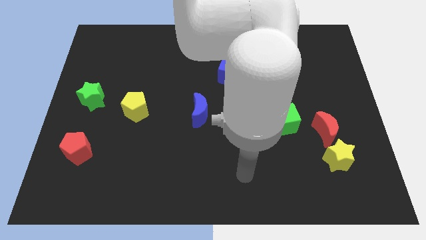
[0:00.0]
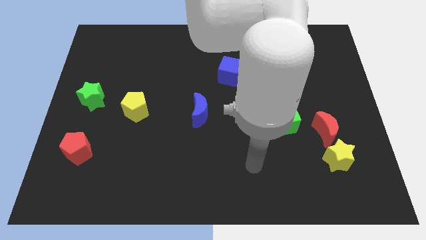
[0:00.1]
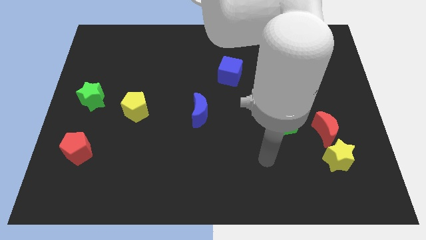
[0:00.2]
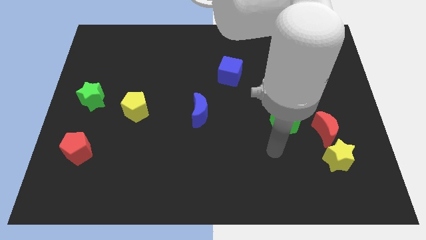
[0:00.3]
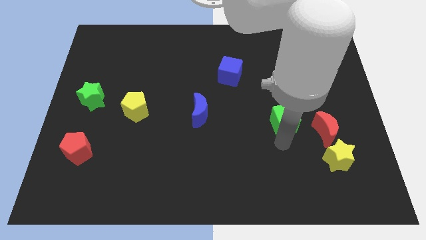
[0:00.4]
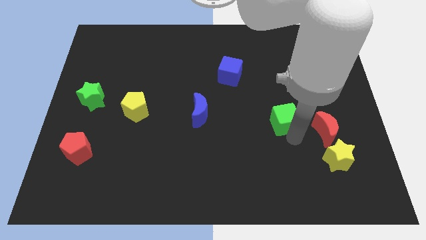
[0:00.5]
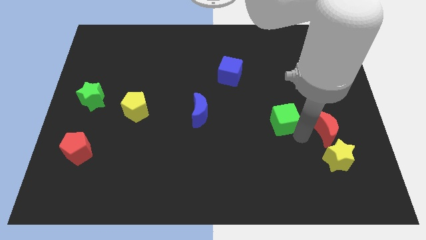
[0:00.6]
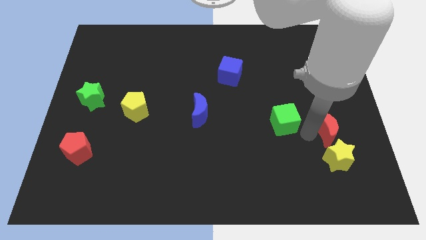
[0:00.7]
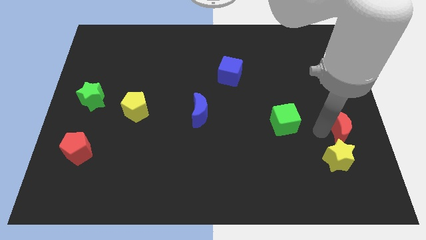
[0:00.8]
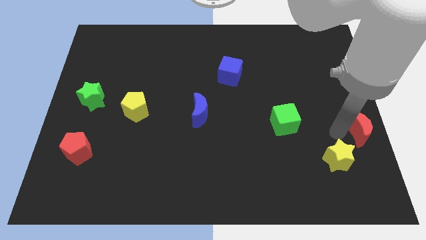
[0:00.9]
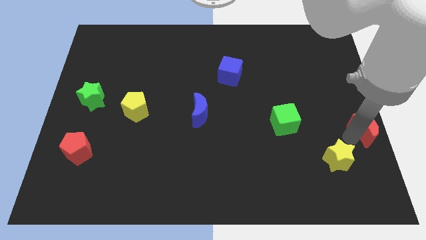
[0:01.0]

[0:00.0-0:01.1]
pull the yellow star apart from the red moon

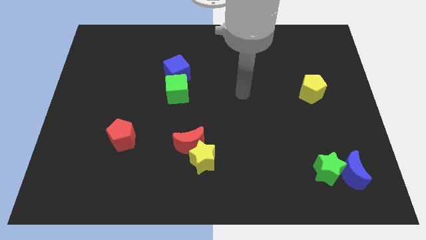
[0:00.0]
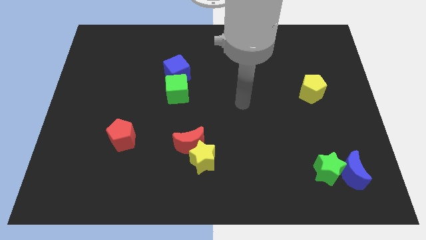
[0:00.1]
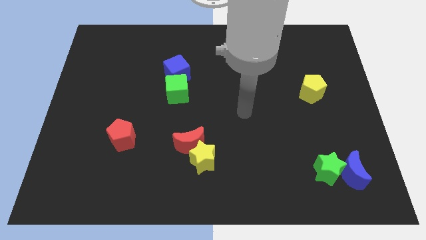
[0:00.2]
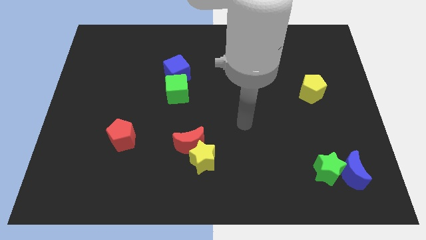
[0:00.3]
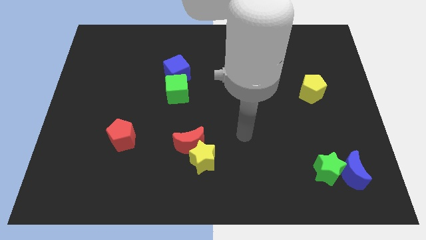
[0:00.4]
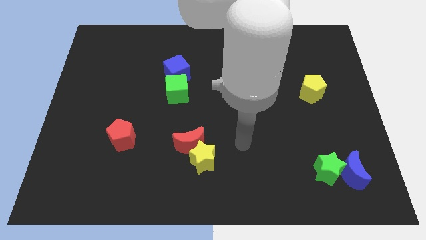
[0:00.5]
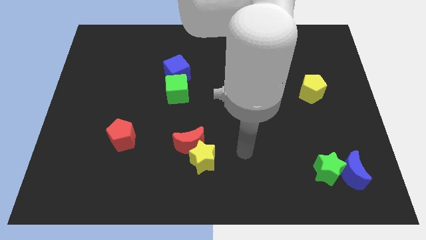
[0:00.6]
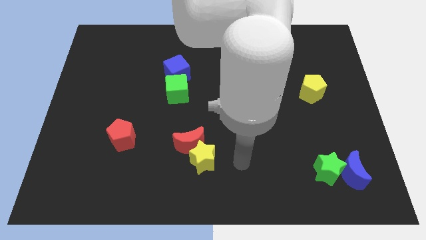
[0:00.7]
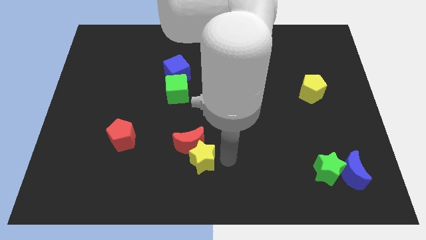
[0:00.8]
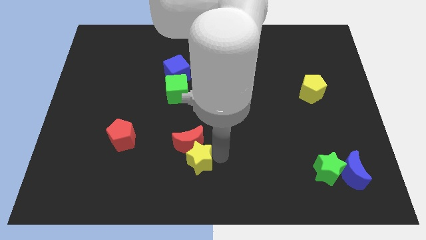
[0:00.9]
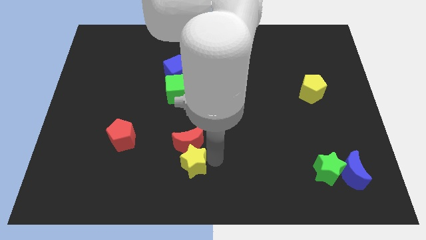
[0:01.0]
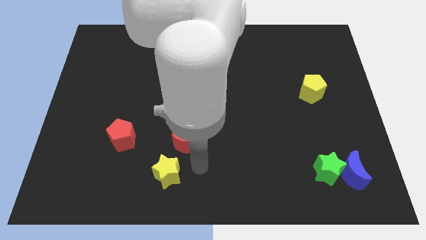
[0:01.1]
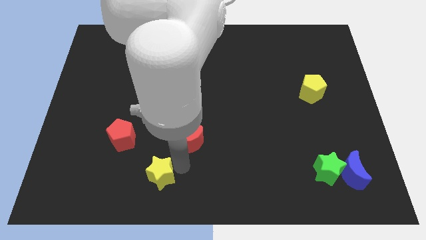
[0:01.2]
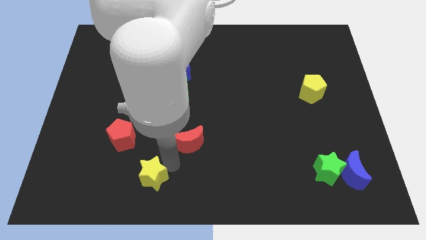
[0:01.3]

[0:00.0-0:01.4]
pull the red moon apart from the yellow star

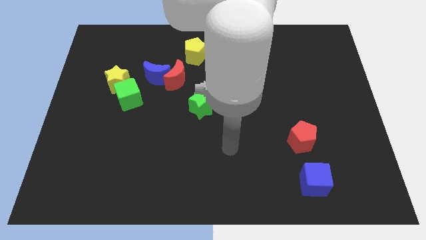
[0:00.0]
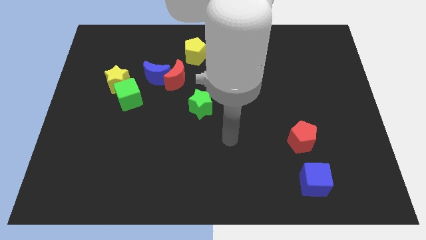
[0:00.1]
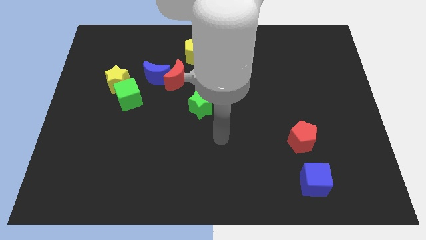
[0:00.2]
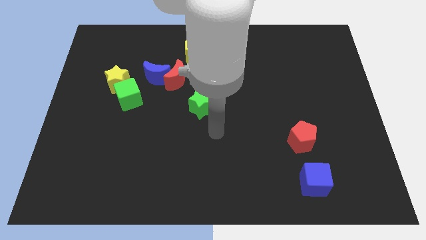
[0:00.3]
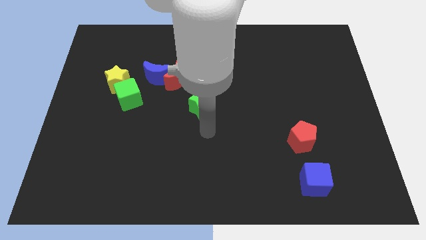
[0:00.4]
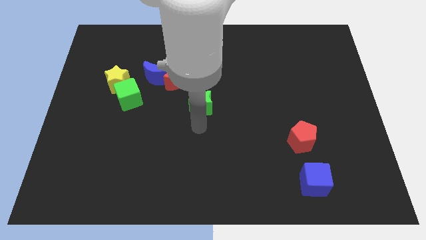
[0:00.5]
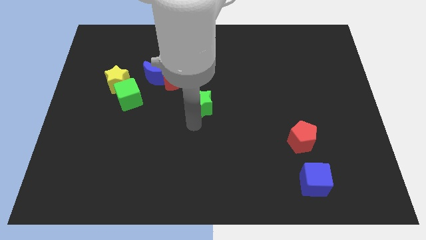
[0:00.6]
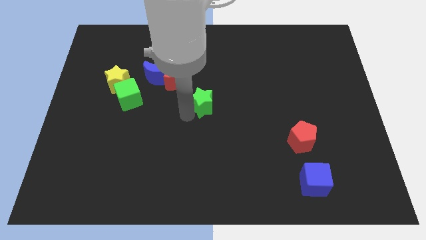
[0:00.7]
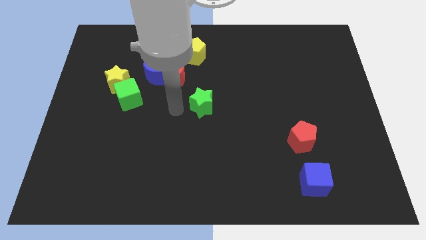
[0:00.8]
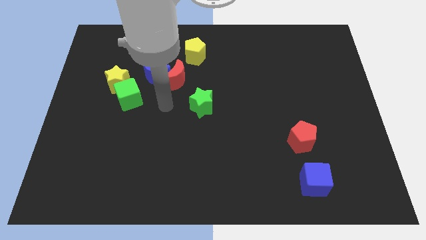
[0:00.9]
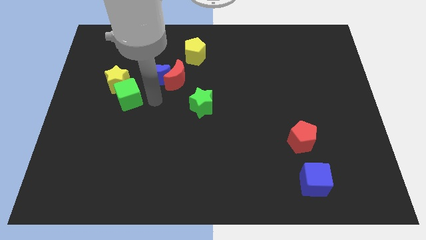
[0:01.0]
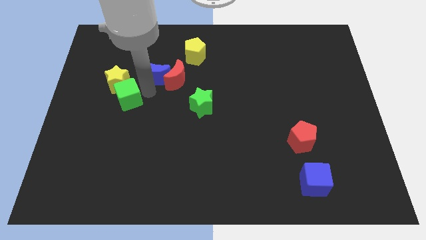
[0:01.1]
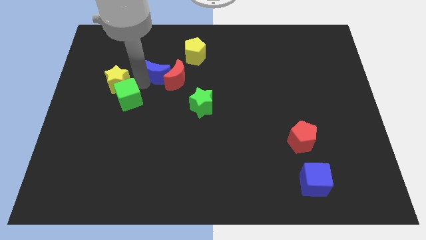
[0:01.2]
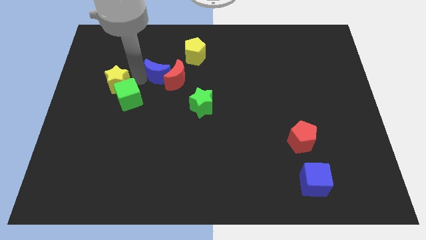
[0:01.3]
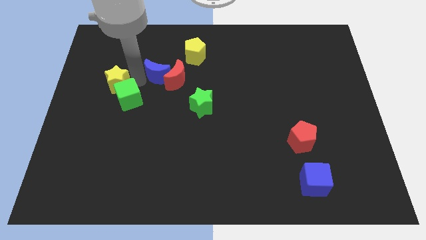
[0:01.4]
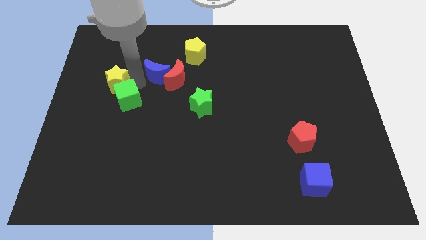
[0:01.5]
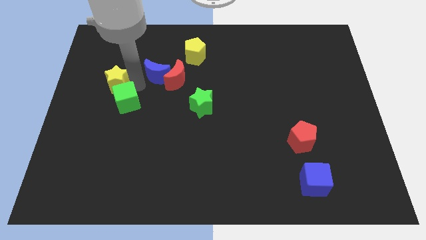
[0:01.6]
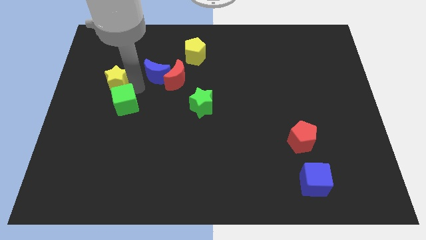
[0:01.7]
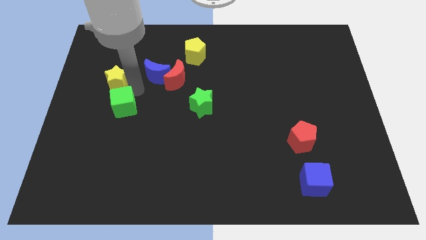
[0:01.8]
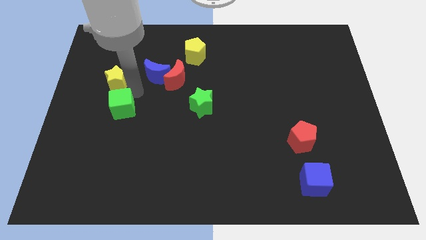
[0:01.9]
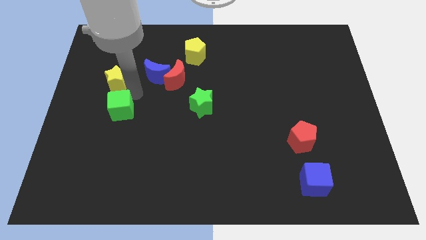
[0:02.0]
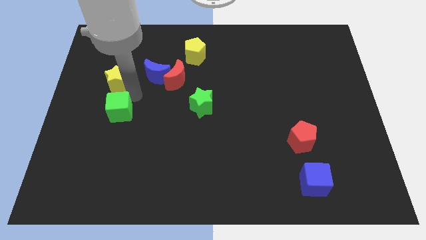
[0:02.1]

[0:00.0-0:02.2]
pull the green cube apart from the yellow star and blue moon

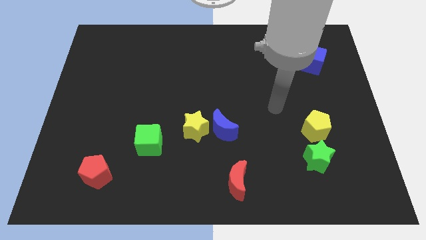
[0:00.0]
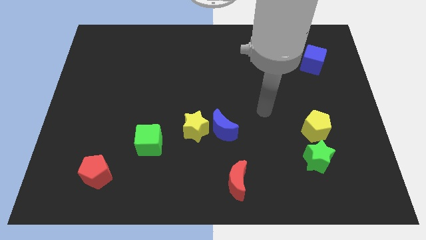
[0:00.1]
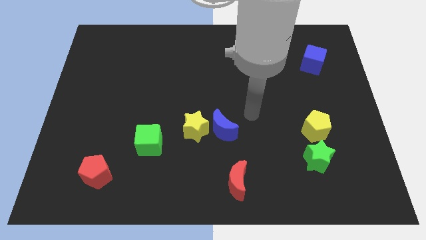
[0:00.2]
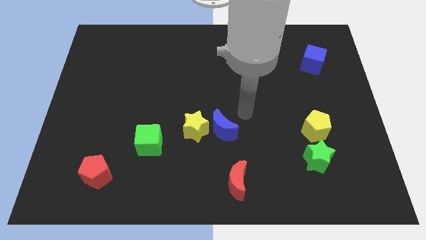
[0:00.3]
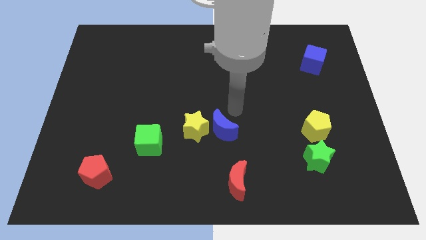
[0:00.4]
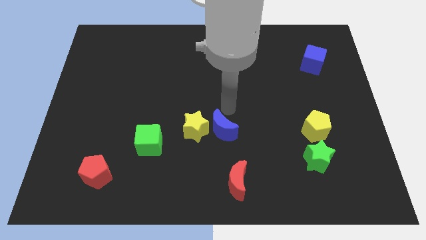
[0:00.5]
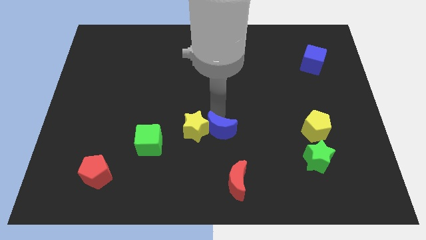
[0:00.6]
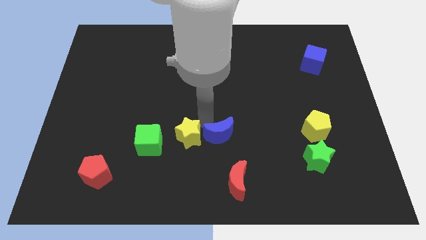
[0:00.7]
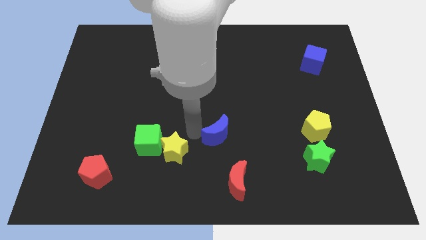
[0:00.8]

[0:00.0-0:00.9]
pull the blue moon apart from the yellow star

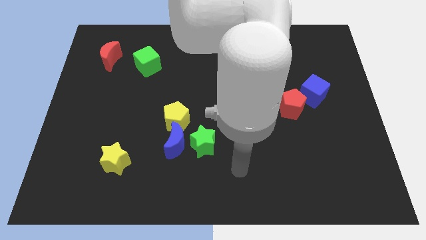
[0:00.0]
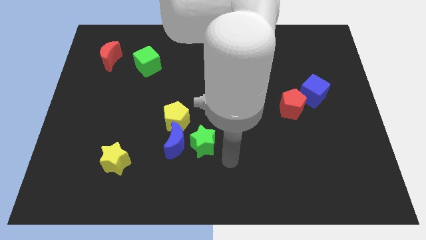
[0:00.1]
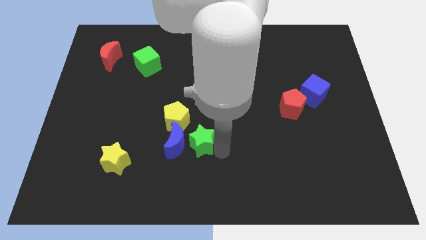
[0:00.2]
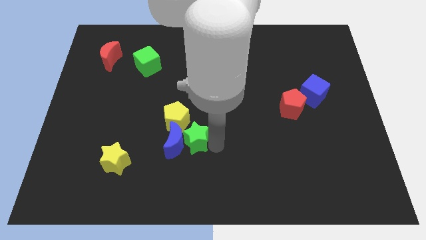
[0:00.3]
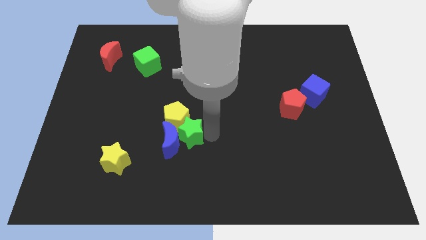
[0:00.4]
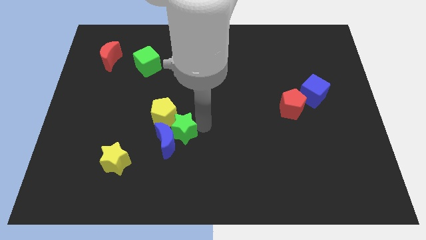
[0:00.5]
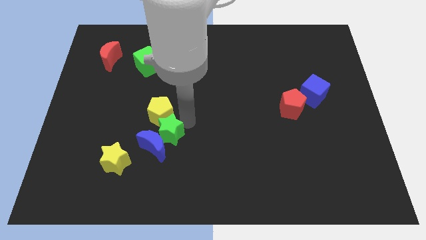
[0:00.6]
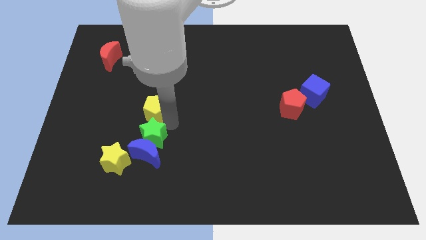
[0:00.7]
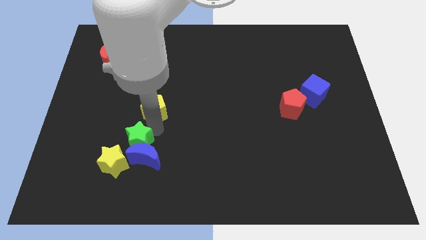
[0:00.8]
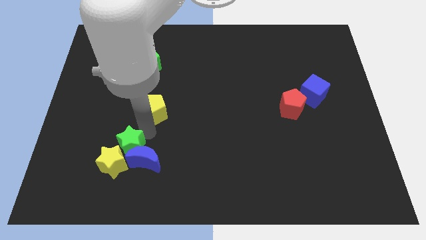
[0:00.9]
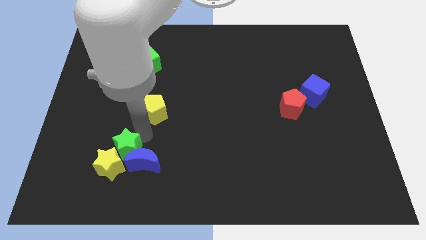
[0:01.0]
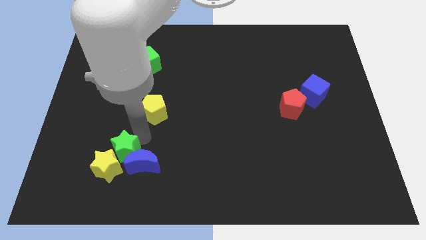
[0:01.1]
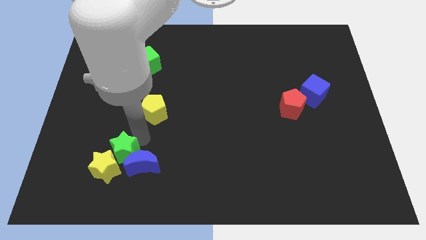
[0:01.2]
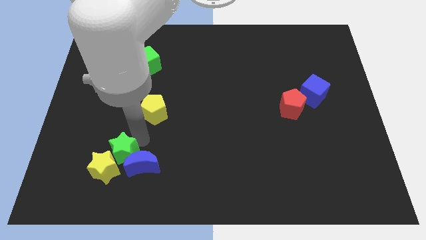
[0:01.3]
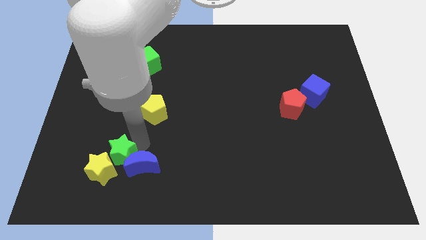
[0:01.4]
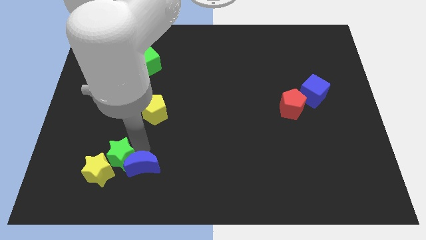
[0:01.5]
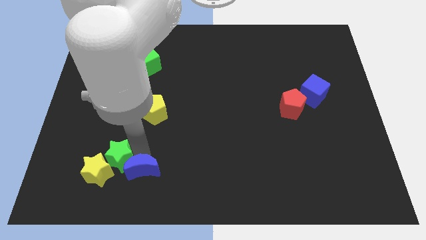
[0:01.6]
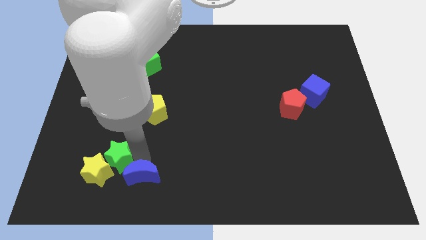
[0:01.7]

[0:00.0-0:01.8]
move the blue moon away from the green star and yellow pentagon

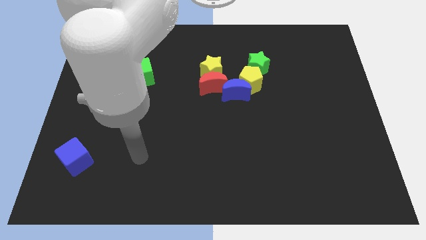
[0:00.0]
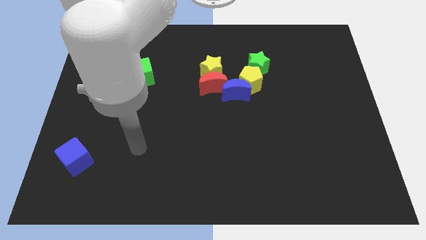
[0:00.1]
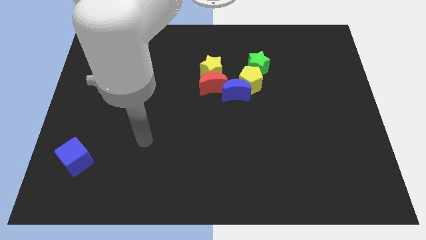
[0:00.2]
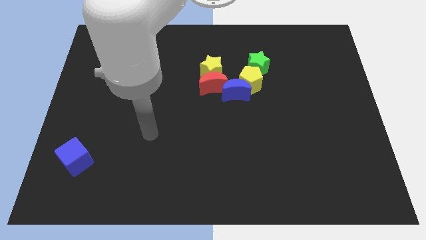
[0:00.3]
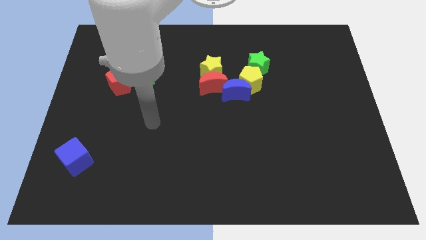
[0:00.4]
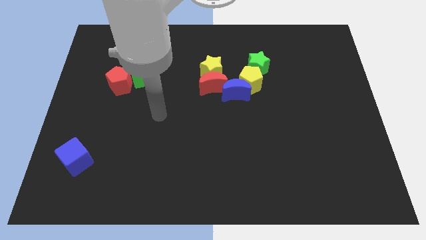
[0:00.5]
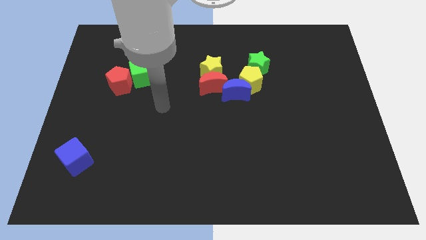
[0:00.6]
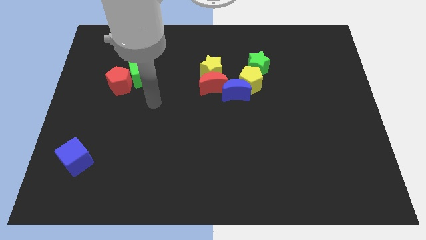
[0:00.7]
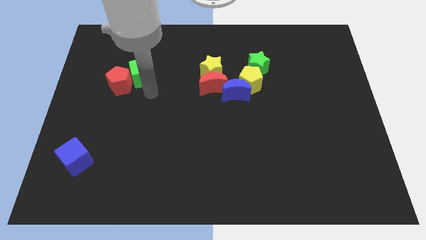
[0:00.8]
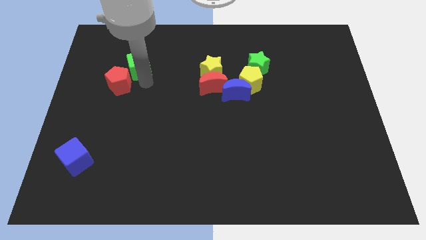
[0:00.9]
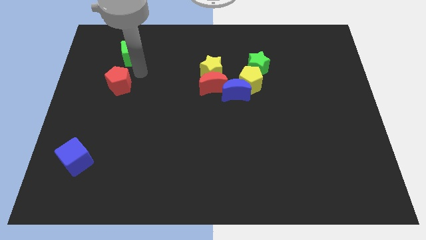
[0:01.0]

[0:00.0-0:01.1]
pull the red pentagon apart from the green cube

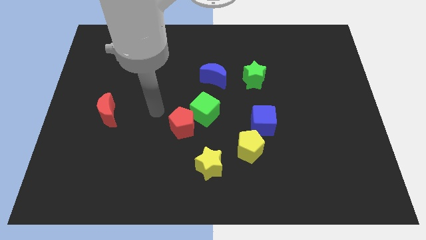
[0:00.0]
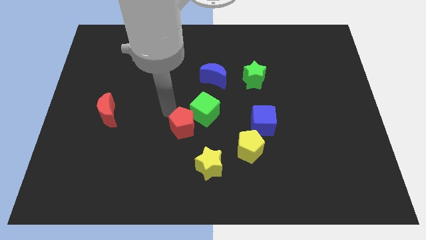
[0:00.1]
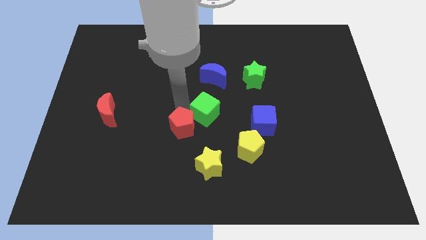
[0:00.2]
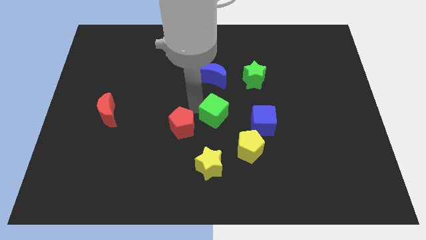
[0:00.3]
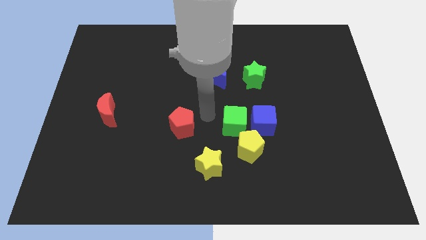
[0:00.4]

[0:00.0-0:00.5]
separate the red pentagon from the green cube

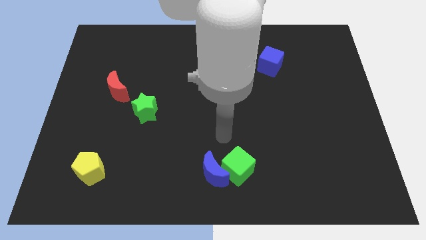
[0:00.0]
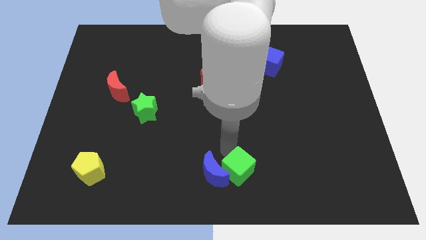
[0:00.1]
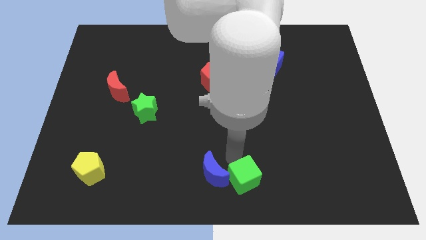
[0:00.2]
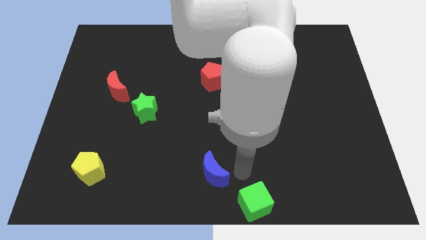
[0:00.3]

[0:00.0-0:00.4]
pull the blue moon apart from the green cube
